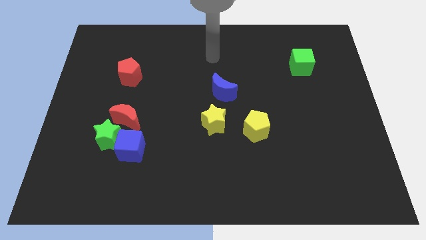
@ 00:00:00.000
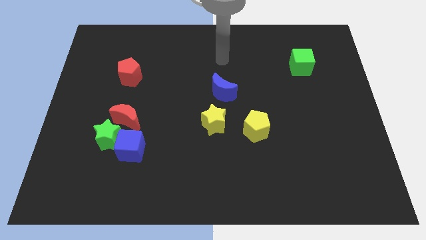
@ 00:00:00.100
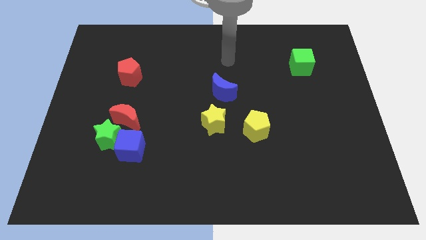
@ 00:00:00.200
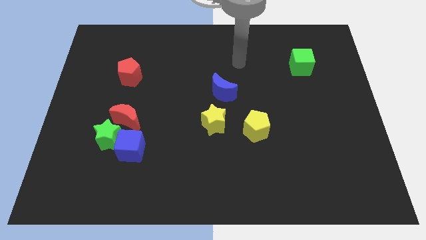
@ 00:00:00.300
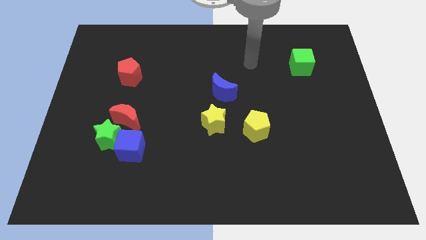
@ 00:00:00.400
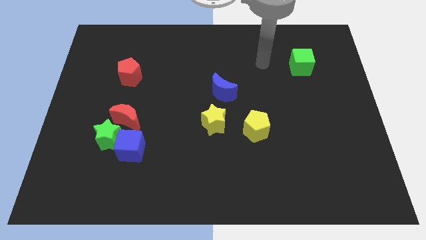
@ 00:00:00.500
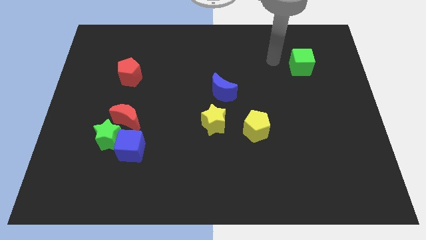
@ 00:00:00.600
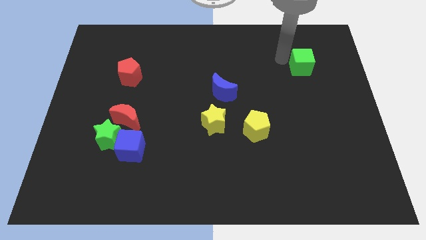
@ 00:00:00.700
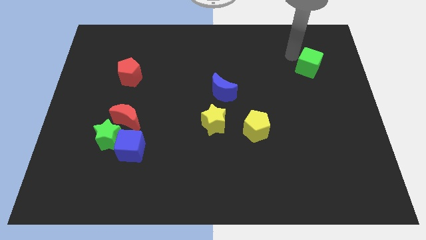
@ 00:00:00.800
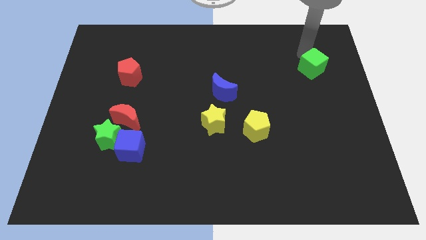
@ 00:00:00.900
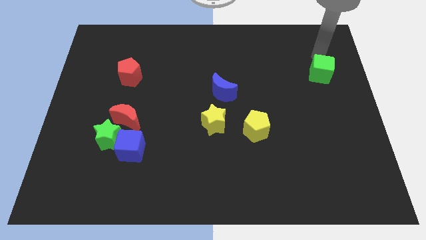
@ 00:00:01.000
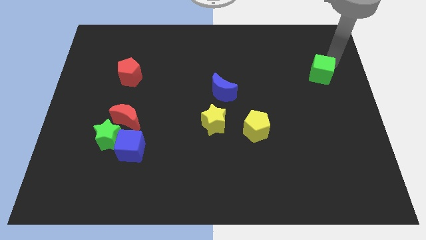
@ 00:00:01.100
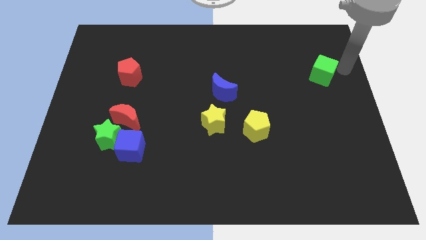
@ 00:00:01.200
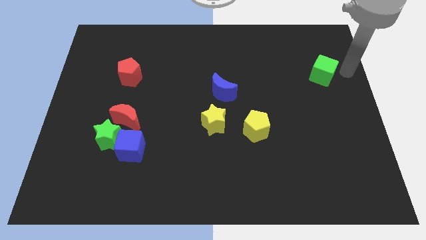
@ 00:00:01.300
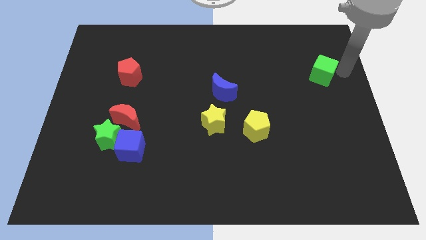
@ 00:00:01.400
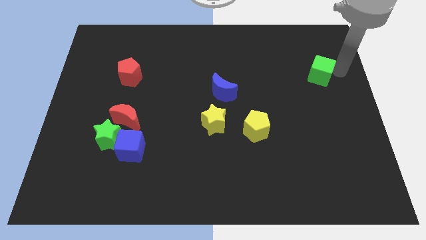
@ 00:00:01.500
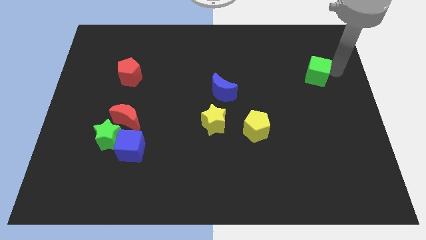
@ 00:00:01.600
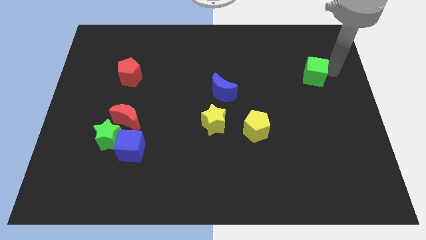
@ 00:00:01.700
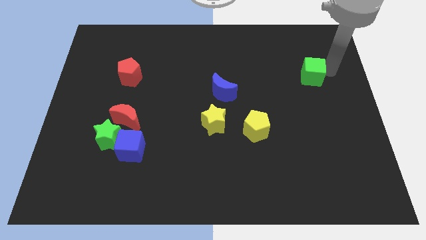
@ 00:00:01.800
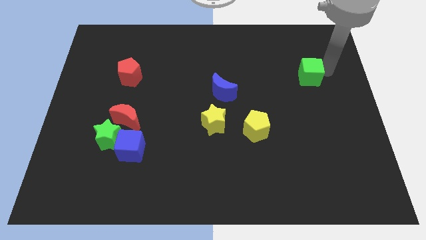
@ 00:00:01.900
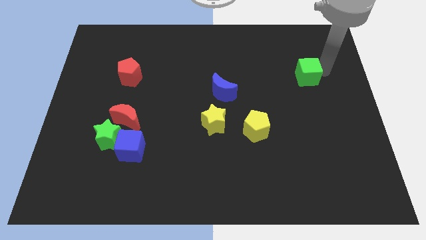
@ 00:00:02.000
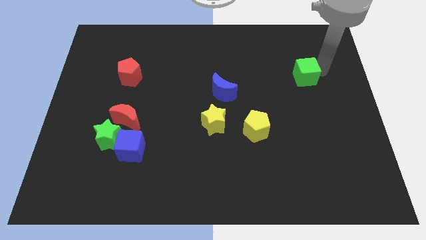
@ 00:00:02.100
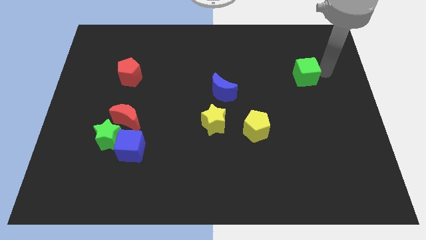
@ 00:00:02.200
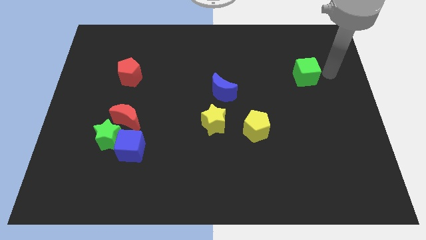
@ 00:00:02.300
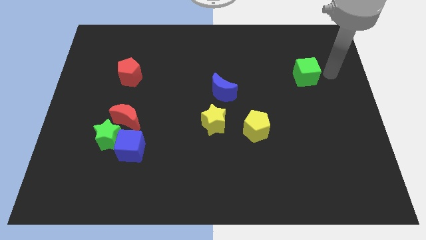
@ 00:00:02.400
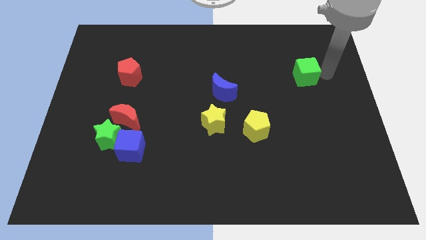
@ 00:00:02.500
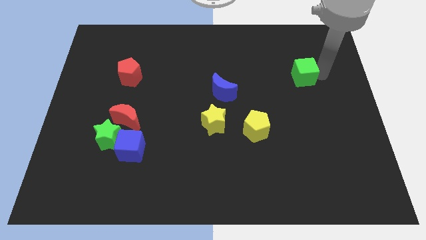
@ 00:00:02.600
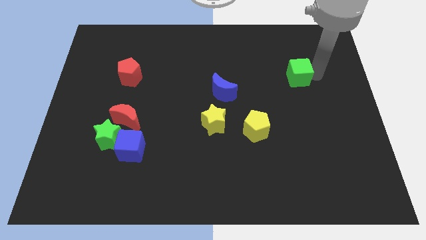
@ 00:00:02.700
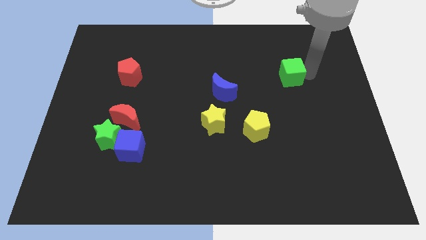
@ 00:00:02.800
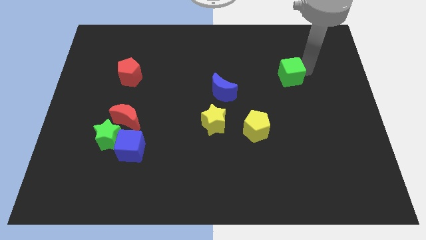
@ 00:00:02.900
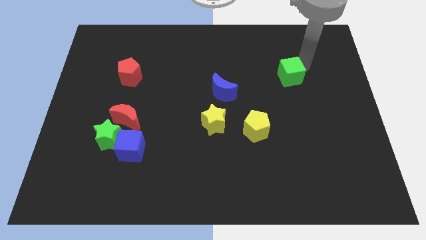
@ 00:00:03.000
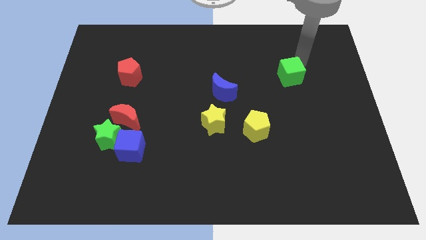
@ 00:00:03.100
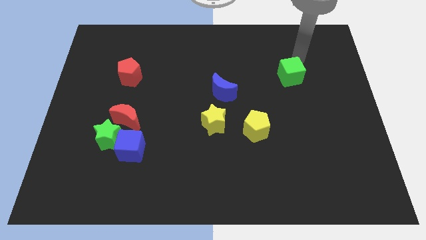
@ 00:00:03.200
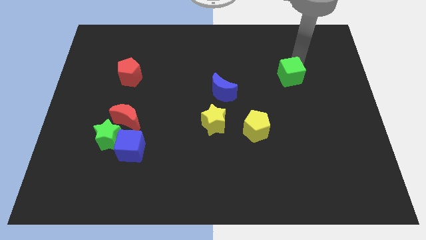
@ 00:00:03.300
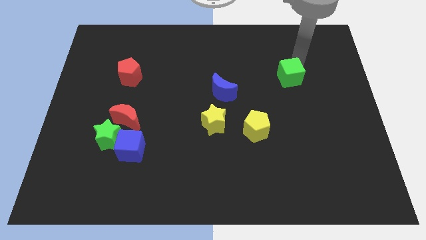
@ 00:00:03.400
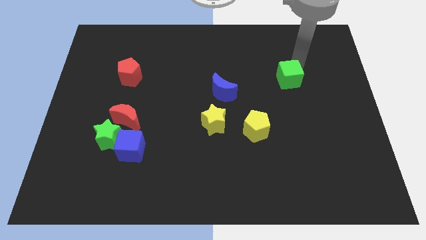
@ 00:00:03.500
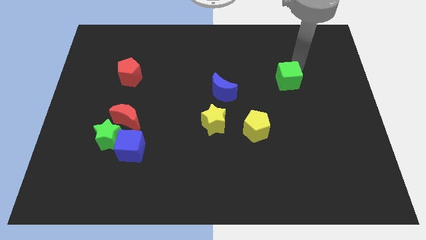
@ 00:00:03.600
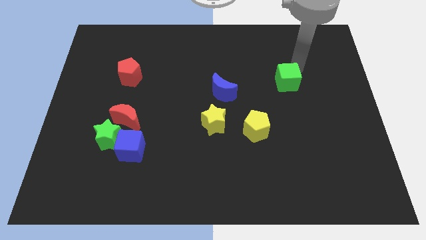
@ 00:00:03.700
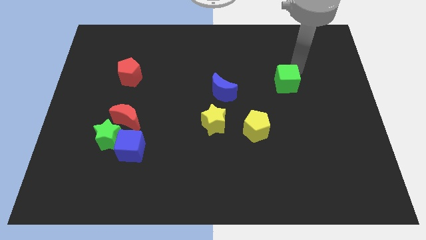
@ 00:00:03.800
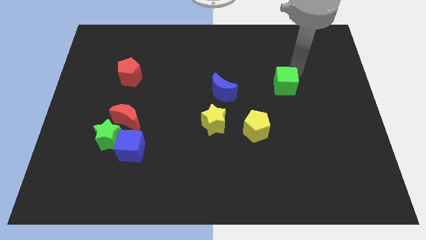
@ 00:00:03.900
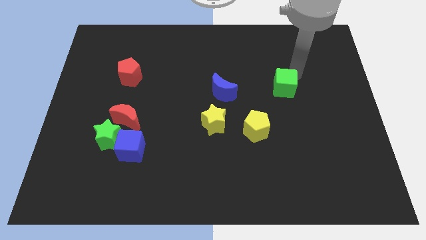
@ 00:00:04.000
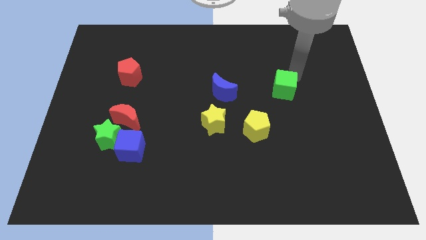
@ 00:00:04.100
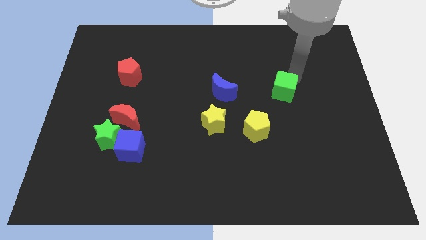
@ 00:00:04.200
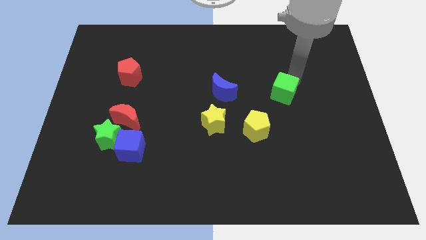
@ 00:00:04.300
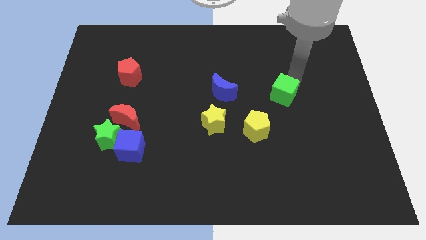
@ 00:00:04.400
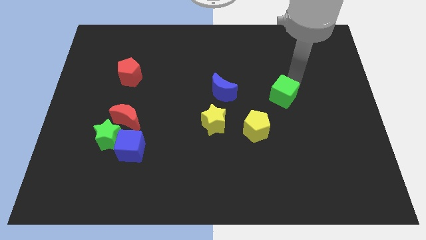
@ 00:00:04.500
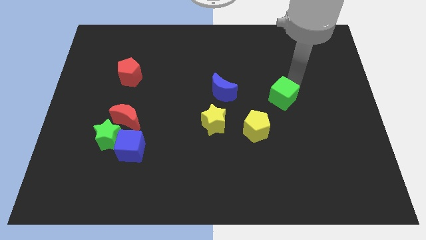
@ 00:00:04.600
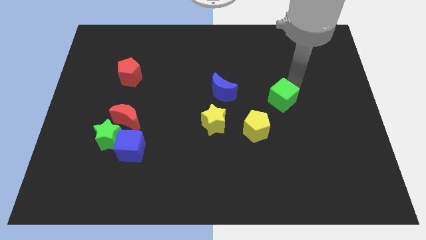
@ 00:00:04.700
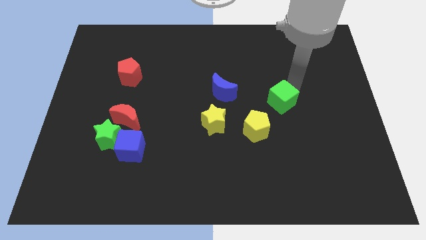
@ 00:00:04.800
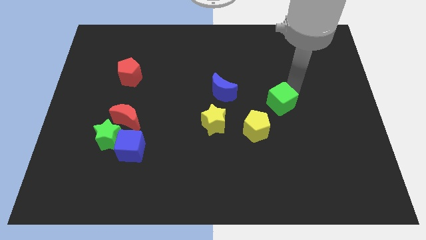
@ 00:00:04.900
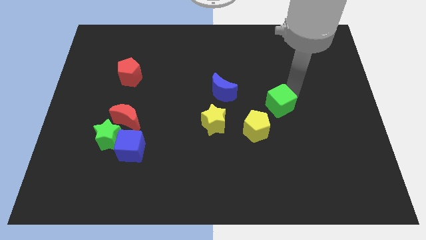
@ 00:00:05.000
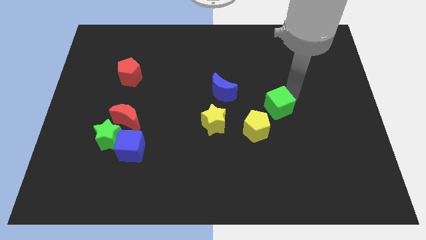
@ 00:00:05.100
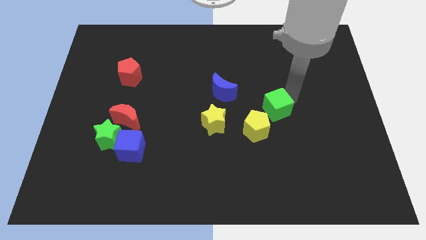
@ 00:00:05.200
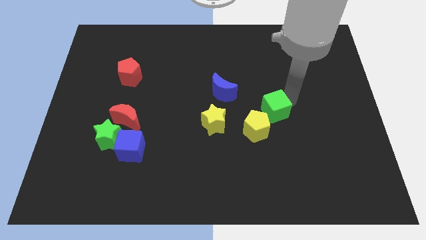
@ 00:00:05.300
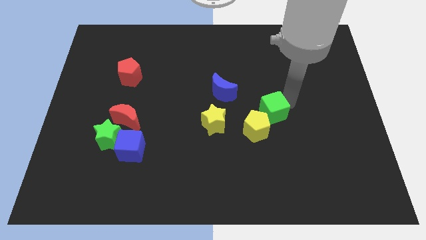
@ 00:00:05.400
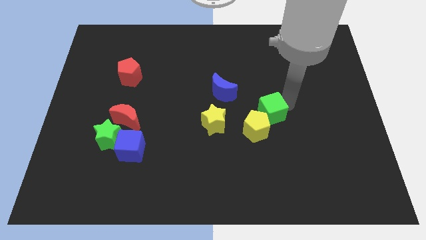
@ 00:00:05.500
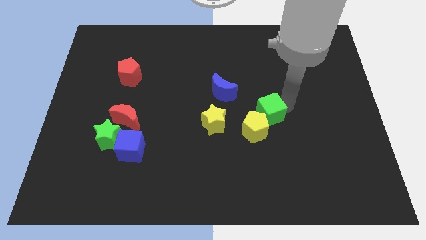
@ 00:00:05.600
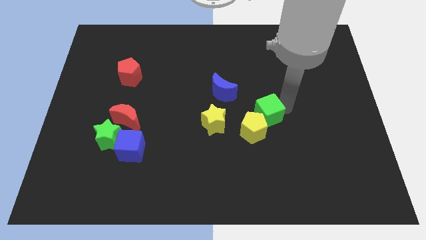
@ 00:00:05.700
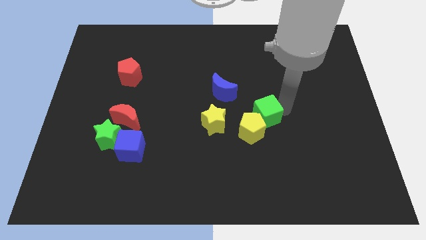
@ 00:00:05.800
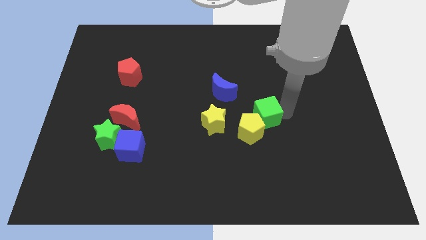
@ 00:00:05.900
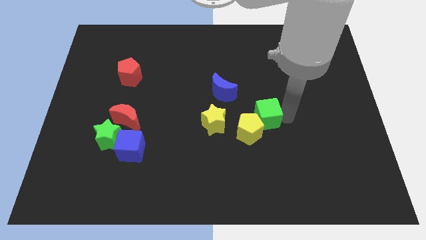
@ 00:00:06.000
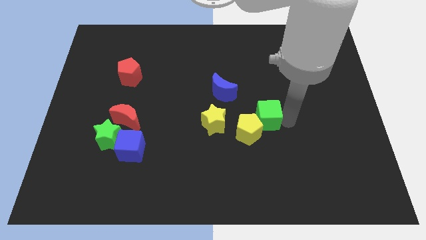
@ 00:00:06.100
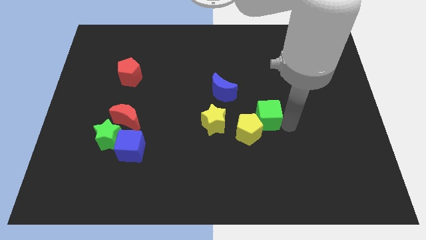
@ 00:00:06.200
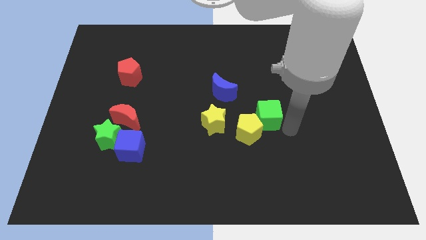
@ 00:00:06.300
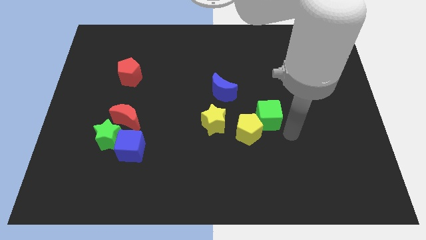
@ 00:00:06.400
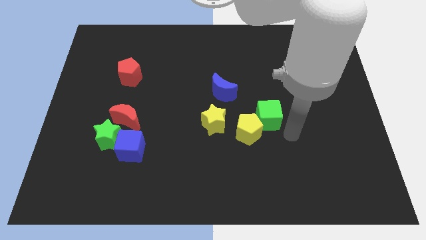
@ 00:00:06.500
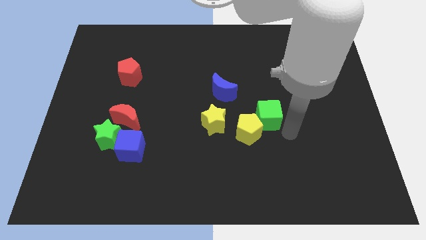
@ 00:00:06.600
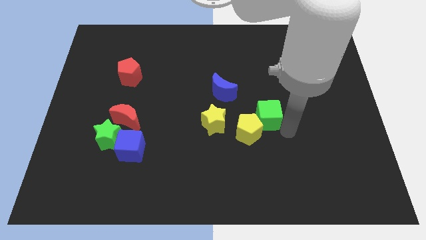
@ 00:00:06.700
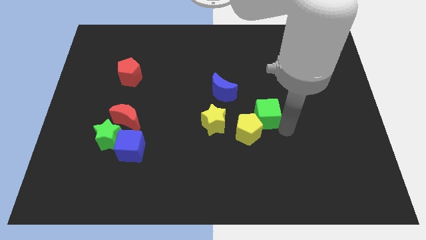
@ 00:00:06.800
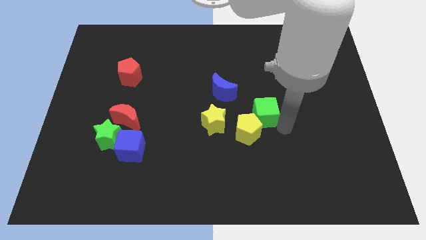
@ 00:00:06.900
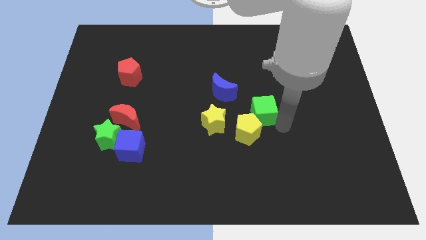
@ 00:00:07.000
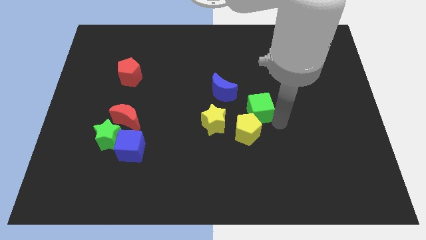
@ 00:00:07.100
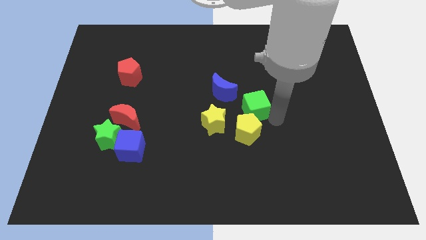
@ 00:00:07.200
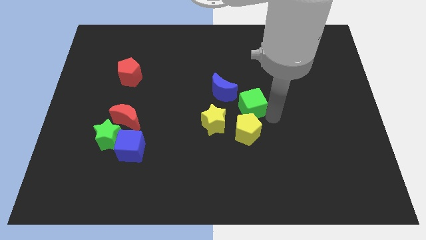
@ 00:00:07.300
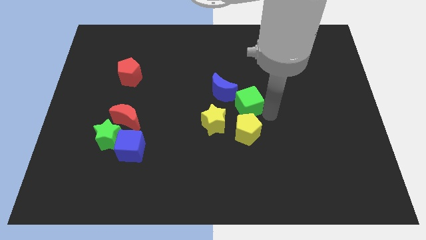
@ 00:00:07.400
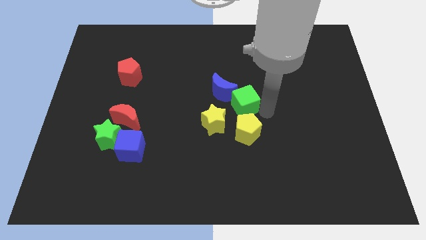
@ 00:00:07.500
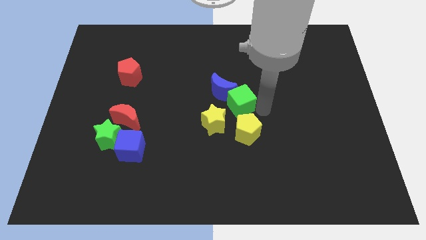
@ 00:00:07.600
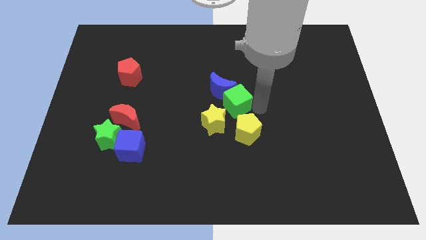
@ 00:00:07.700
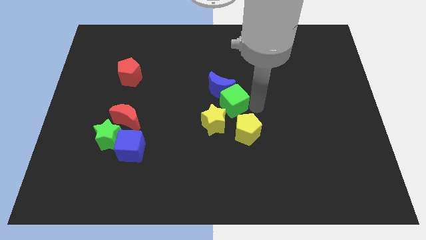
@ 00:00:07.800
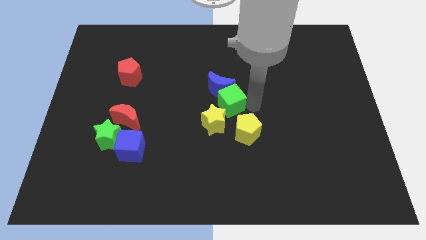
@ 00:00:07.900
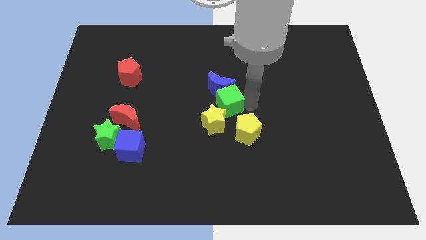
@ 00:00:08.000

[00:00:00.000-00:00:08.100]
push the green cube towards the yellow star
